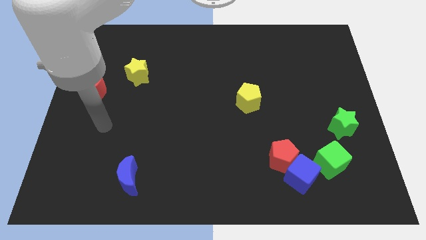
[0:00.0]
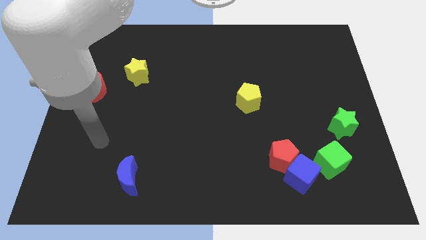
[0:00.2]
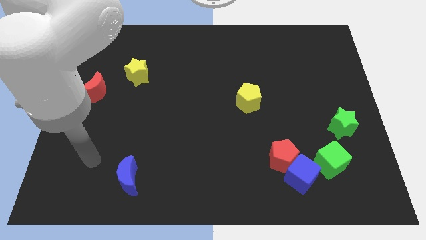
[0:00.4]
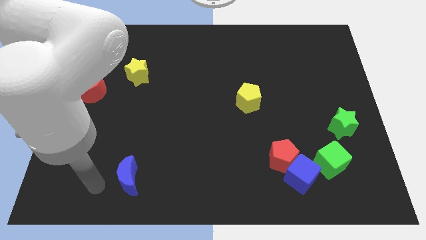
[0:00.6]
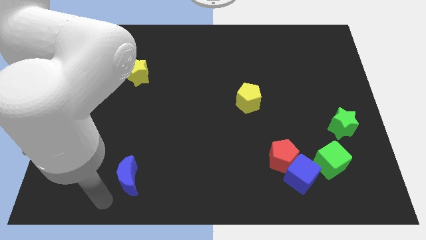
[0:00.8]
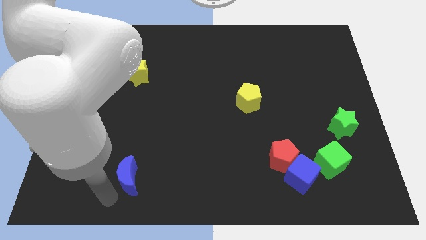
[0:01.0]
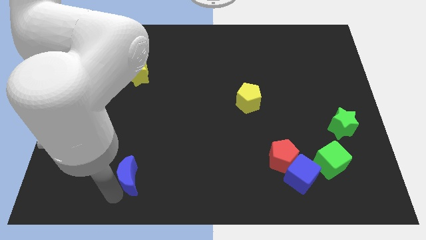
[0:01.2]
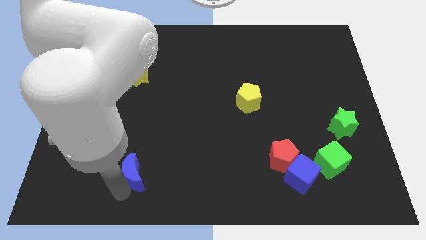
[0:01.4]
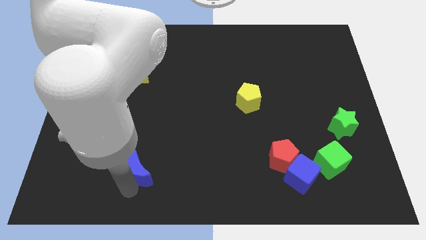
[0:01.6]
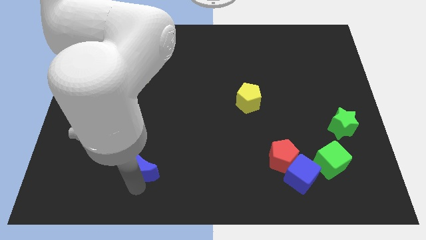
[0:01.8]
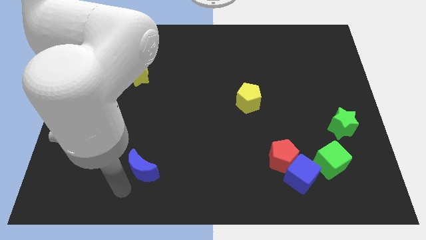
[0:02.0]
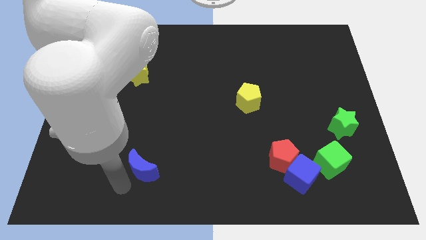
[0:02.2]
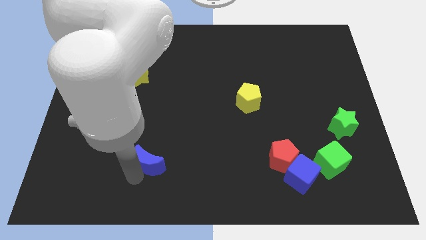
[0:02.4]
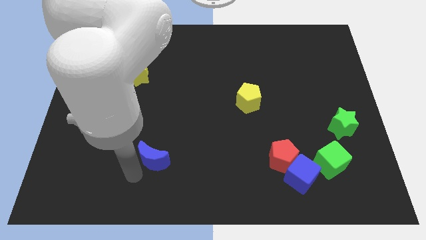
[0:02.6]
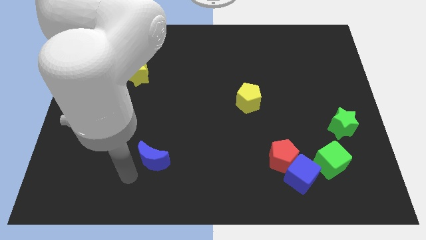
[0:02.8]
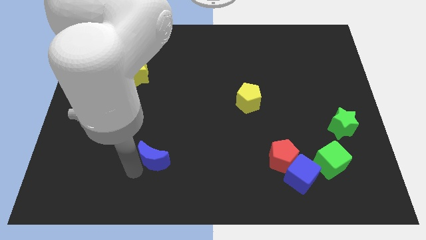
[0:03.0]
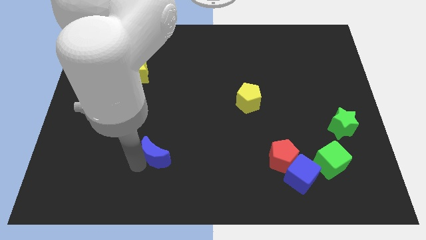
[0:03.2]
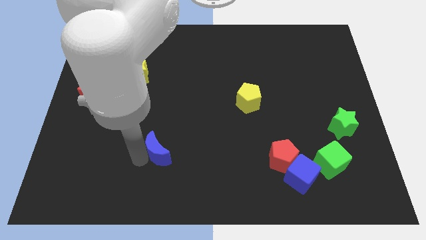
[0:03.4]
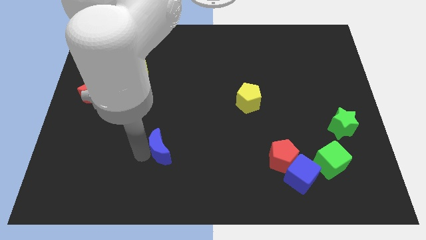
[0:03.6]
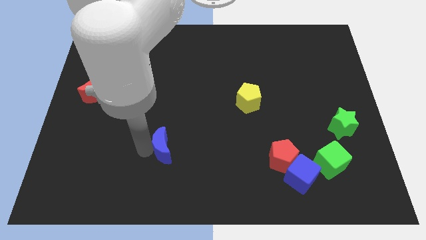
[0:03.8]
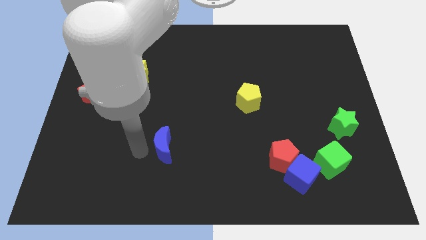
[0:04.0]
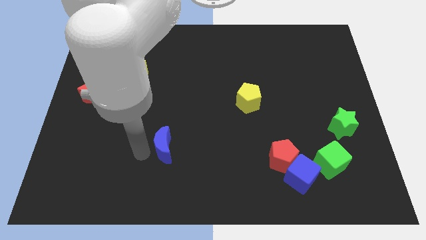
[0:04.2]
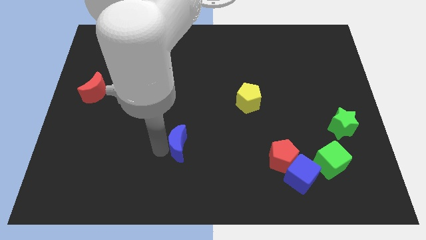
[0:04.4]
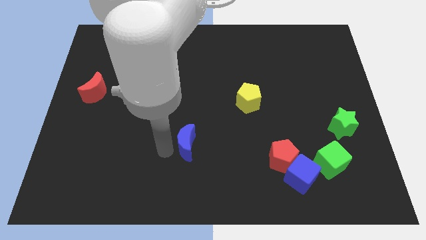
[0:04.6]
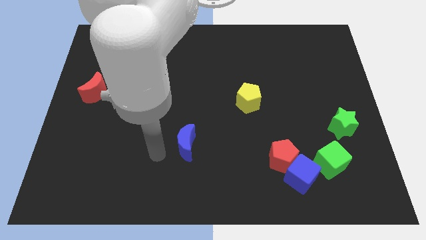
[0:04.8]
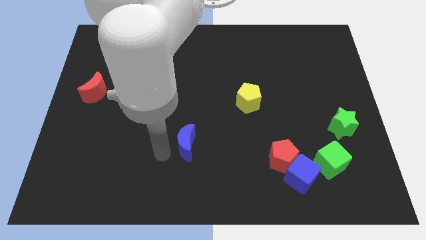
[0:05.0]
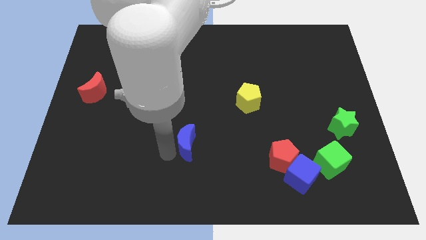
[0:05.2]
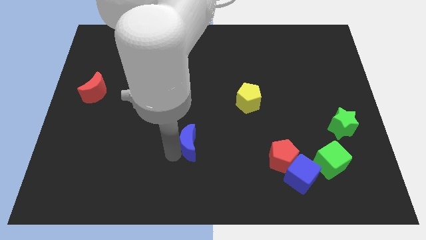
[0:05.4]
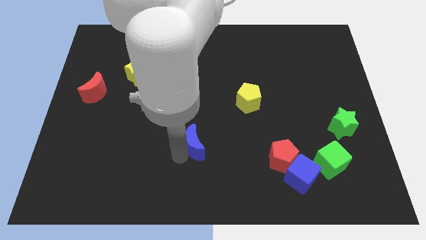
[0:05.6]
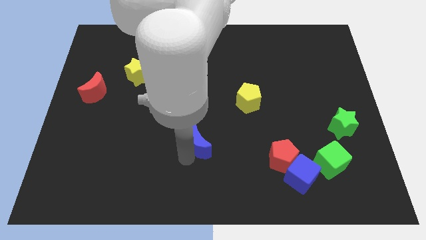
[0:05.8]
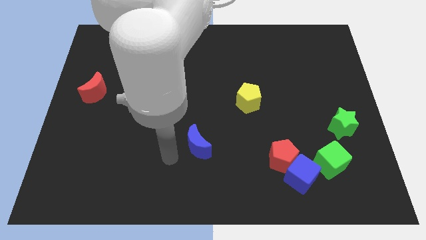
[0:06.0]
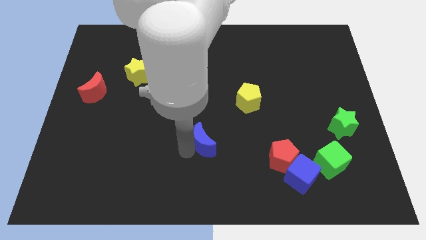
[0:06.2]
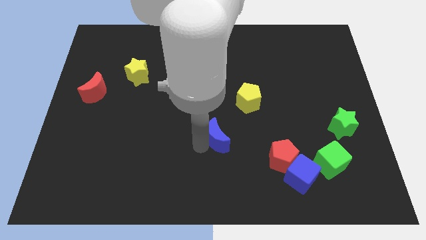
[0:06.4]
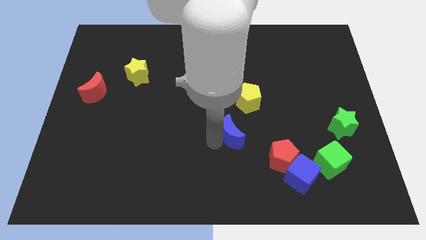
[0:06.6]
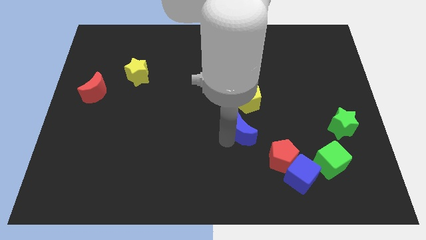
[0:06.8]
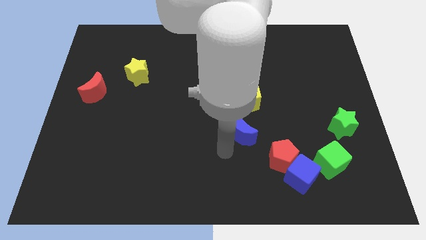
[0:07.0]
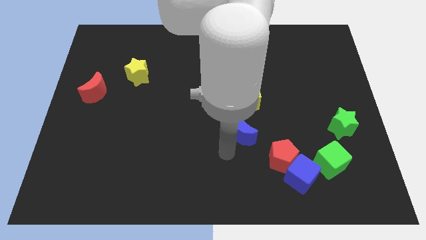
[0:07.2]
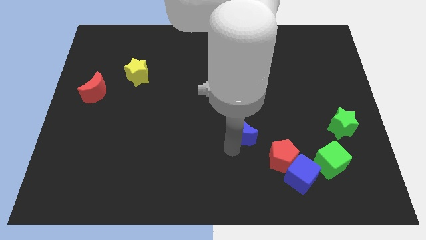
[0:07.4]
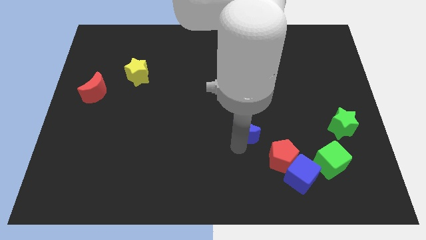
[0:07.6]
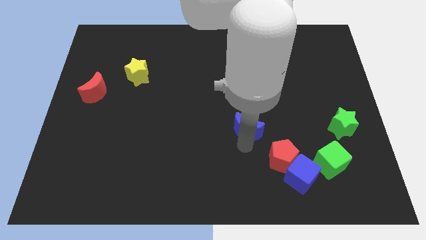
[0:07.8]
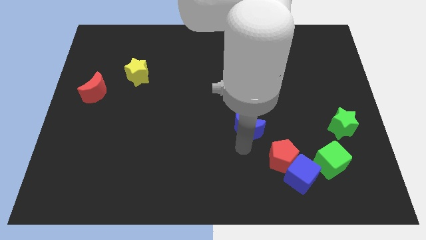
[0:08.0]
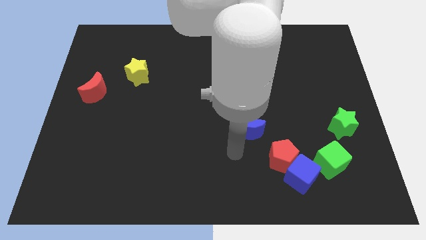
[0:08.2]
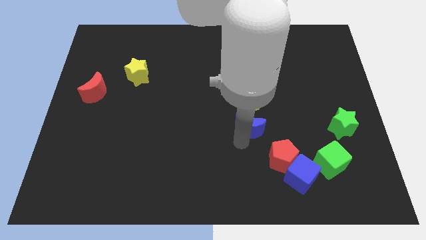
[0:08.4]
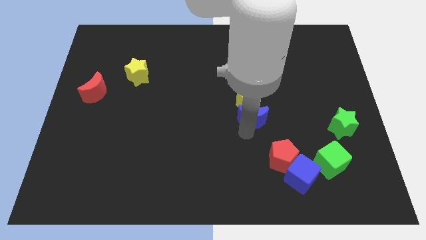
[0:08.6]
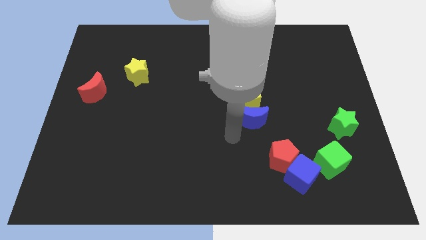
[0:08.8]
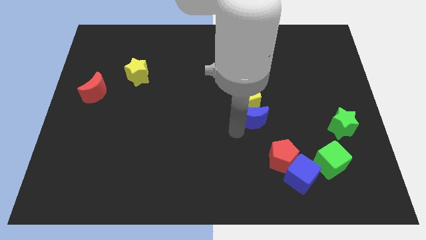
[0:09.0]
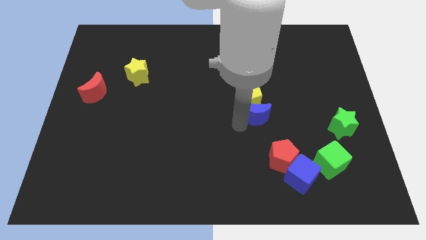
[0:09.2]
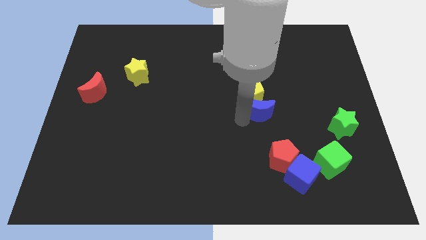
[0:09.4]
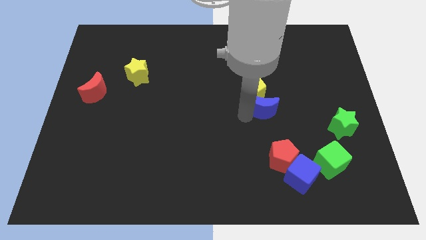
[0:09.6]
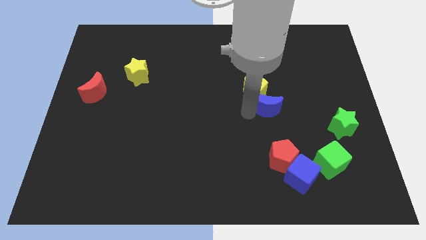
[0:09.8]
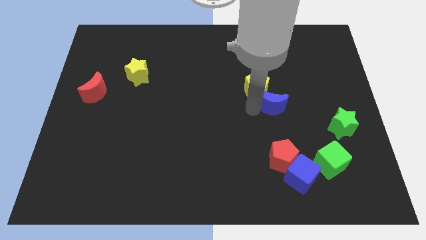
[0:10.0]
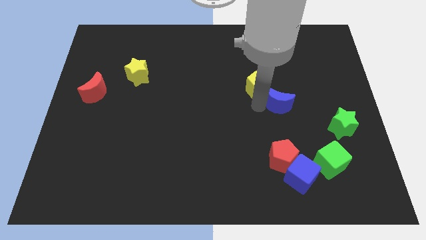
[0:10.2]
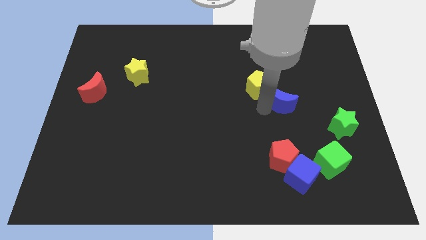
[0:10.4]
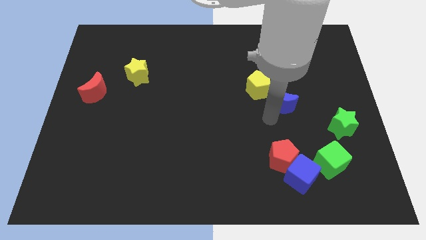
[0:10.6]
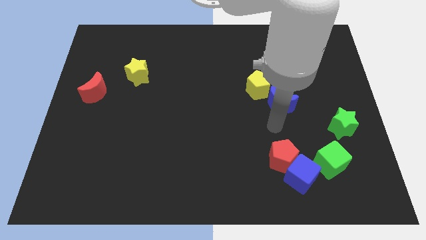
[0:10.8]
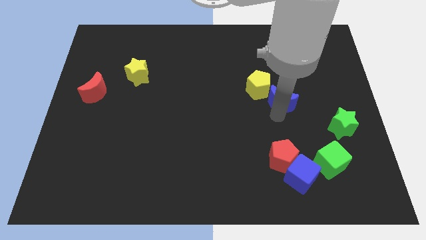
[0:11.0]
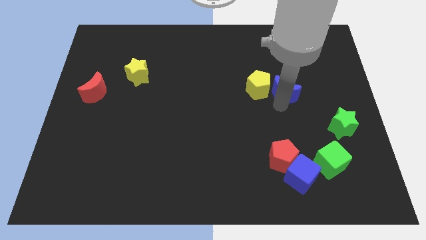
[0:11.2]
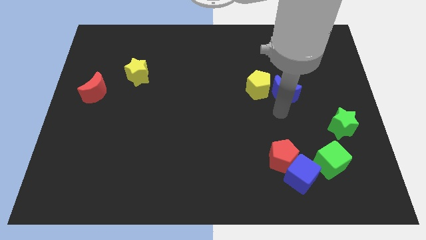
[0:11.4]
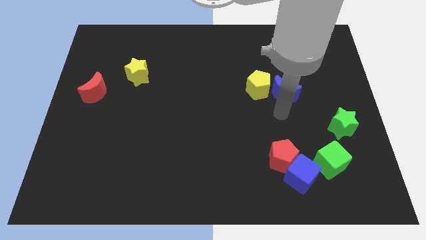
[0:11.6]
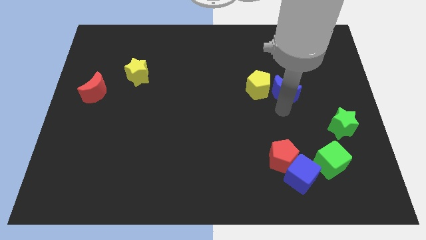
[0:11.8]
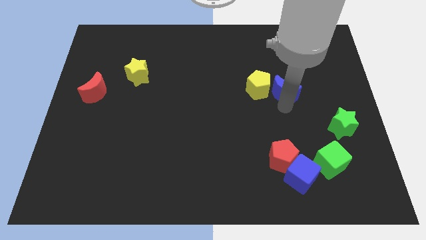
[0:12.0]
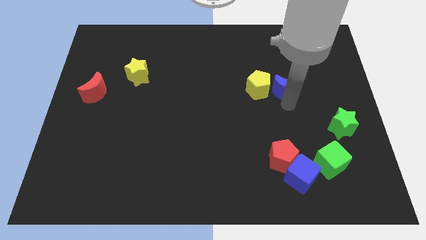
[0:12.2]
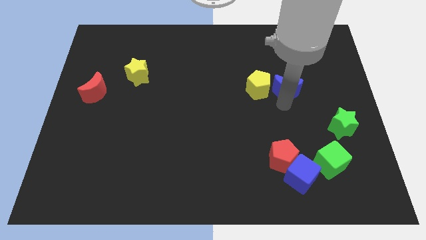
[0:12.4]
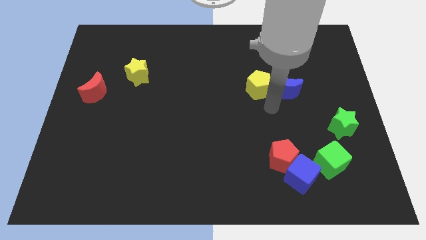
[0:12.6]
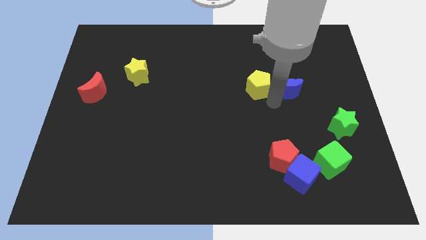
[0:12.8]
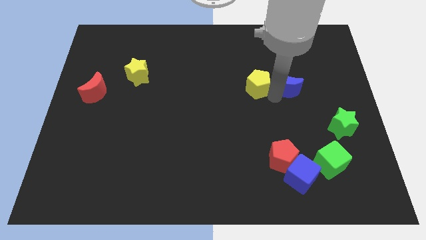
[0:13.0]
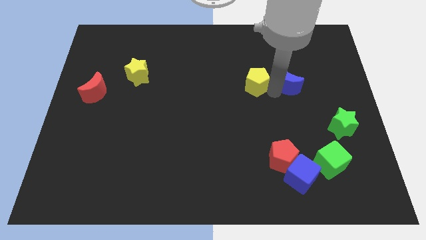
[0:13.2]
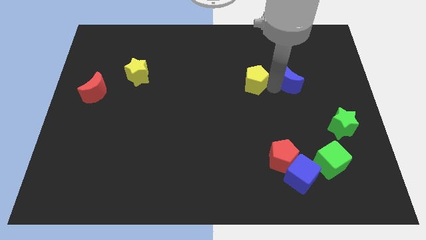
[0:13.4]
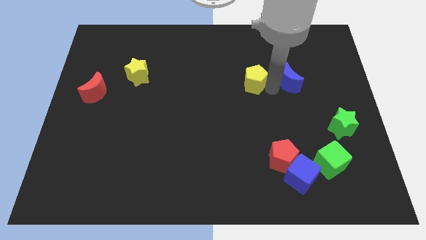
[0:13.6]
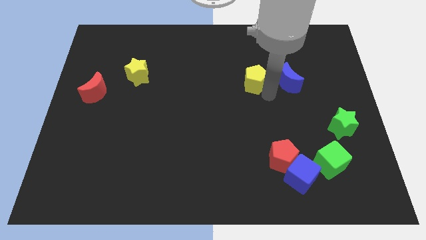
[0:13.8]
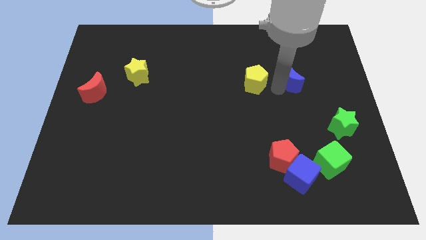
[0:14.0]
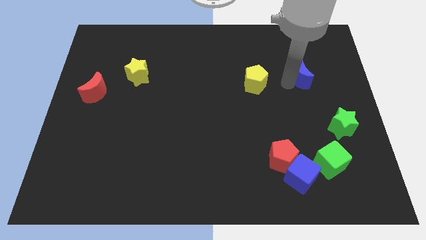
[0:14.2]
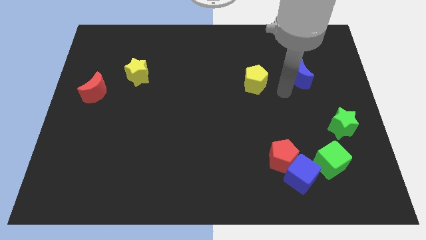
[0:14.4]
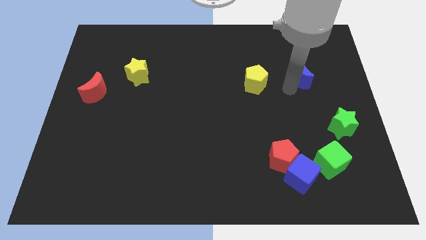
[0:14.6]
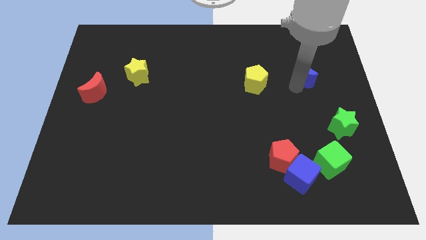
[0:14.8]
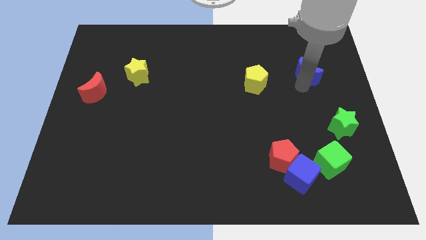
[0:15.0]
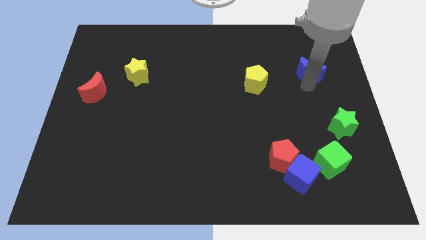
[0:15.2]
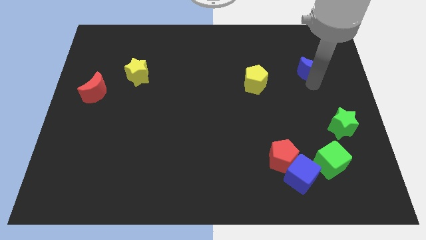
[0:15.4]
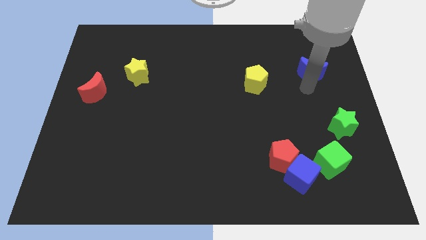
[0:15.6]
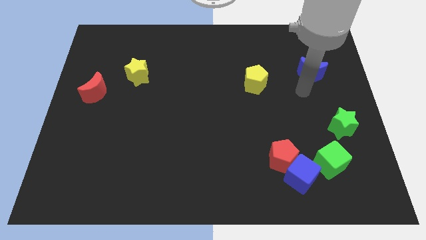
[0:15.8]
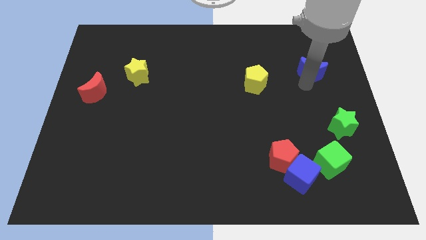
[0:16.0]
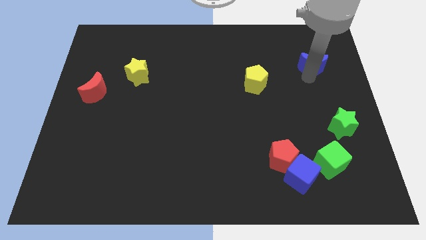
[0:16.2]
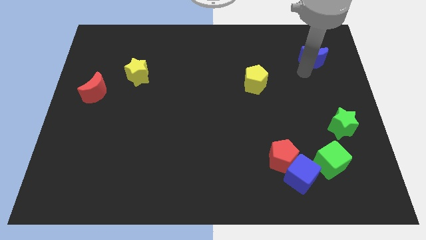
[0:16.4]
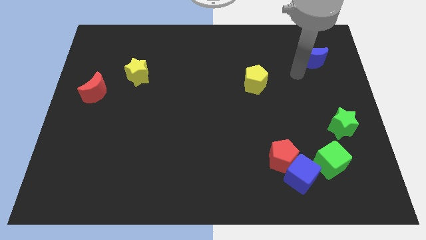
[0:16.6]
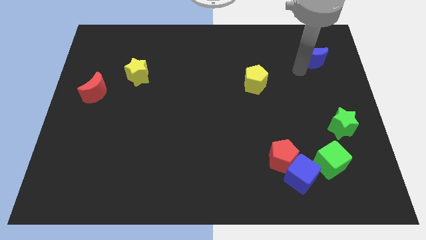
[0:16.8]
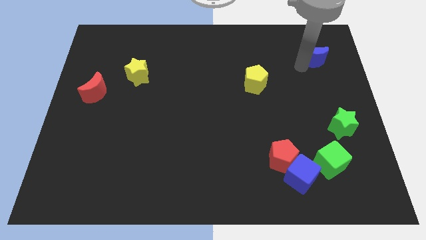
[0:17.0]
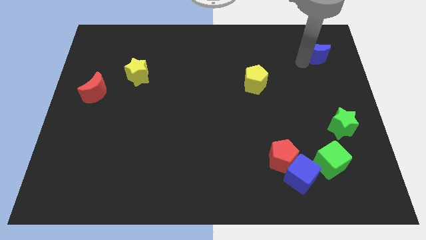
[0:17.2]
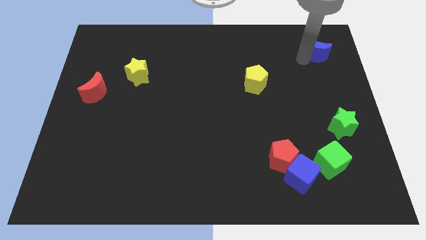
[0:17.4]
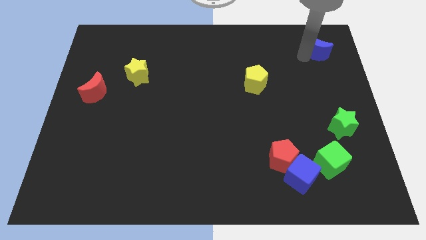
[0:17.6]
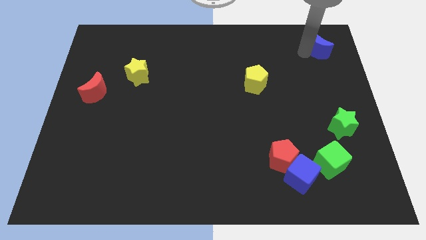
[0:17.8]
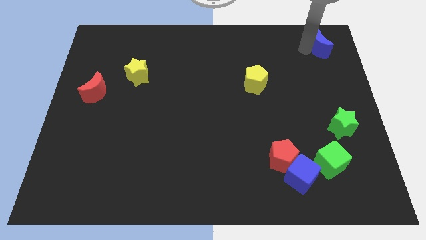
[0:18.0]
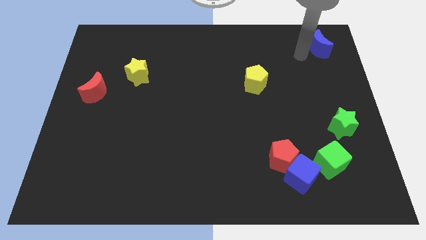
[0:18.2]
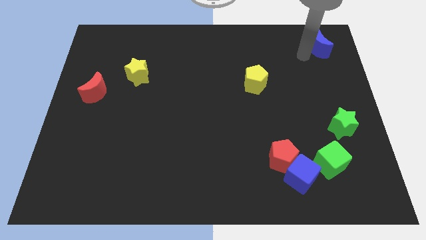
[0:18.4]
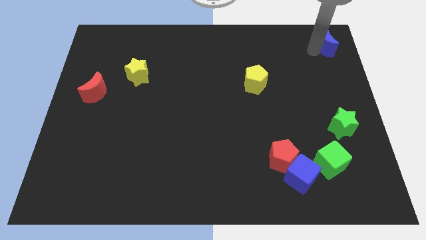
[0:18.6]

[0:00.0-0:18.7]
move the blue moon to the upper right corner
